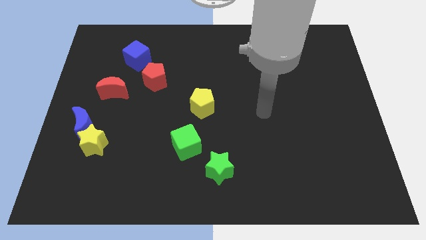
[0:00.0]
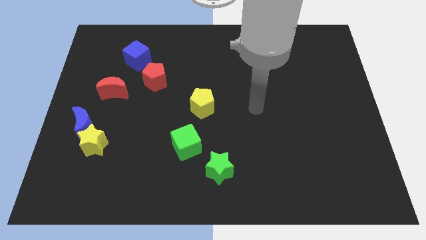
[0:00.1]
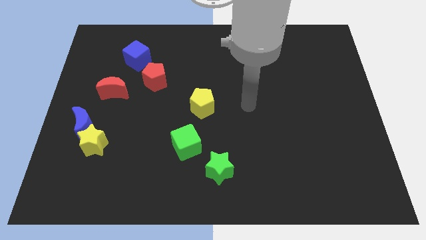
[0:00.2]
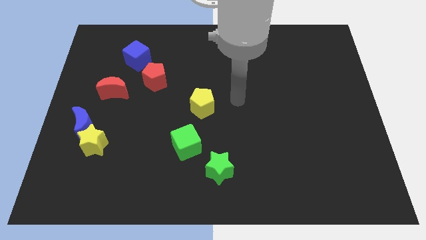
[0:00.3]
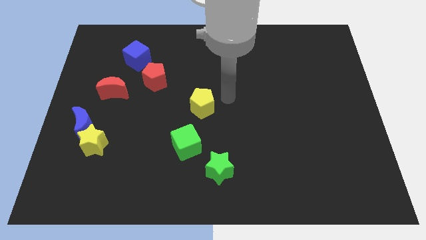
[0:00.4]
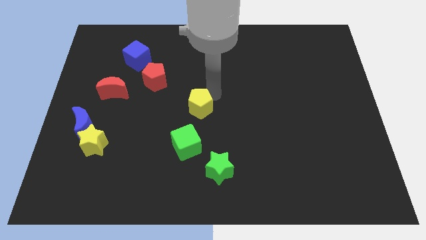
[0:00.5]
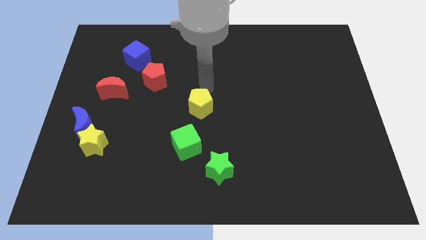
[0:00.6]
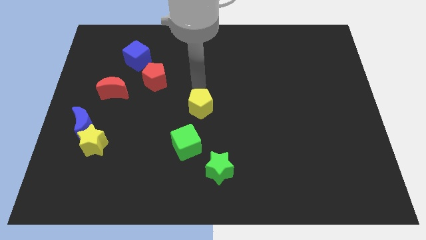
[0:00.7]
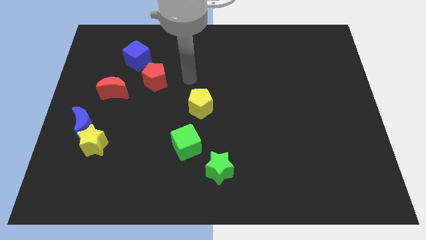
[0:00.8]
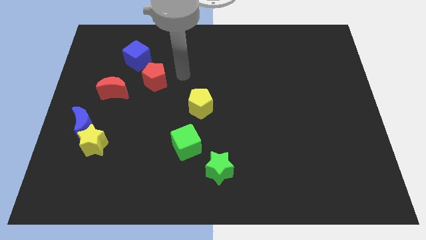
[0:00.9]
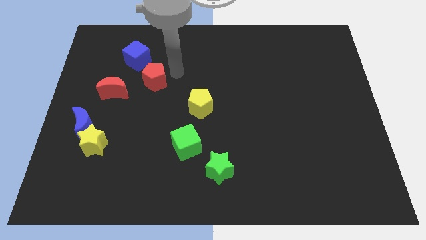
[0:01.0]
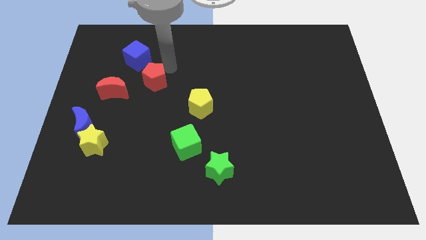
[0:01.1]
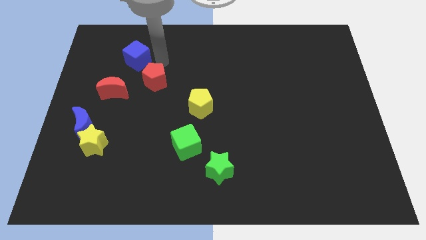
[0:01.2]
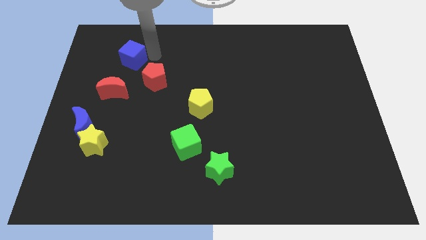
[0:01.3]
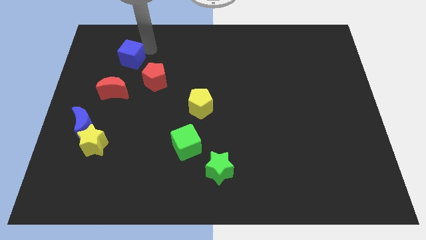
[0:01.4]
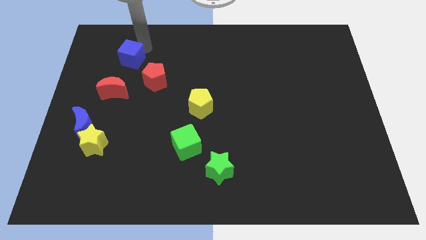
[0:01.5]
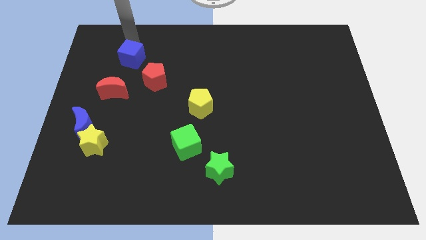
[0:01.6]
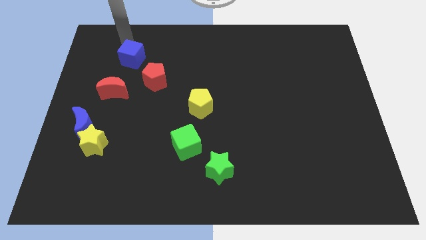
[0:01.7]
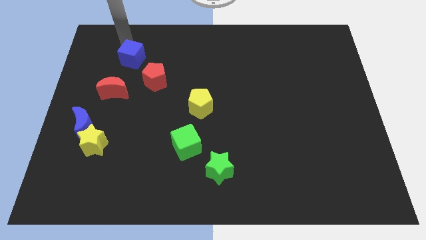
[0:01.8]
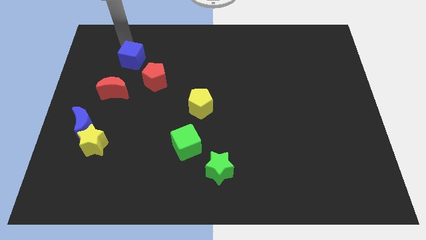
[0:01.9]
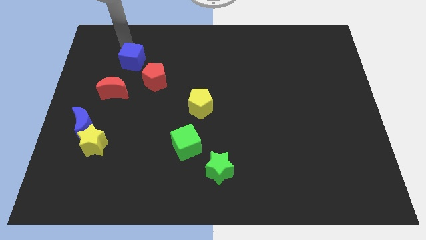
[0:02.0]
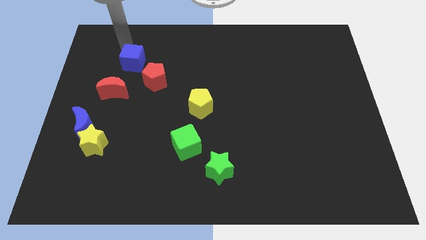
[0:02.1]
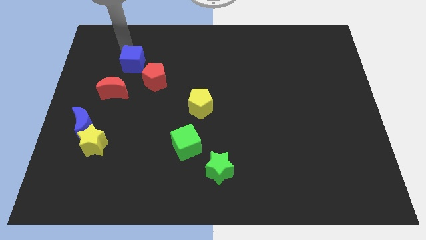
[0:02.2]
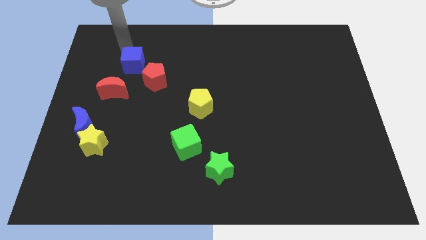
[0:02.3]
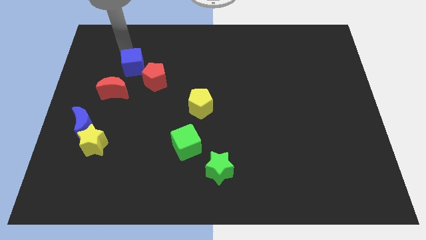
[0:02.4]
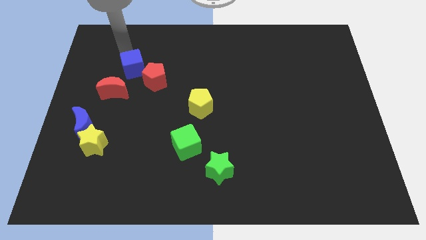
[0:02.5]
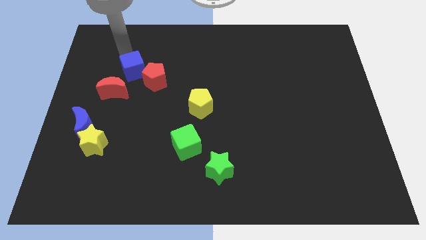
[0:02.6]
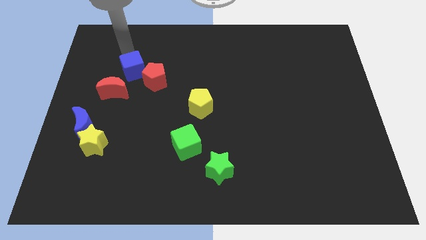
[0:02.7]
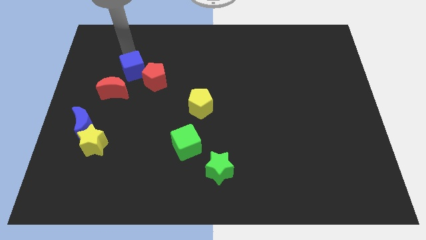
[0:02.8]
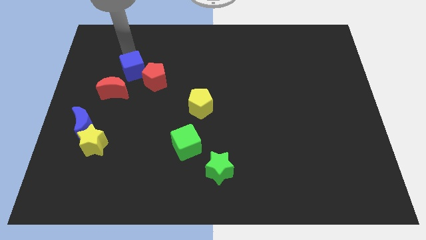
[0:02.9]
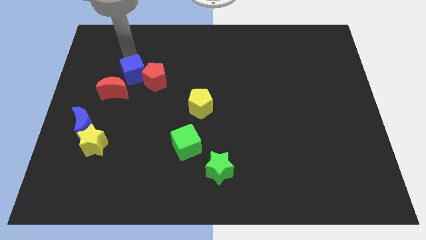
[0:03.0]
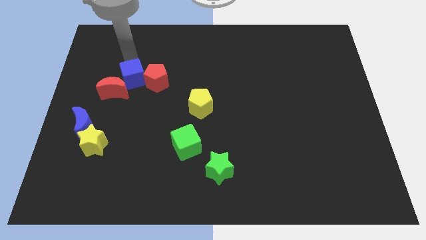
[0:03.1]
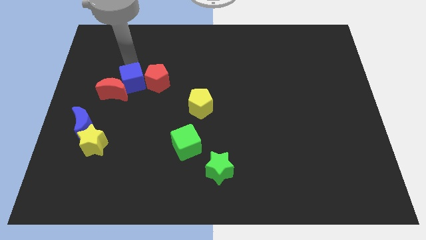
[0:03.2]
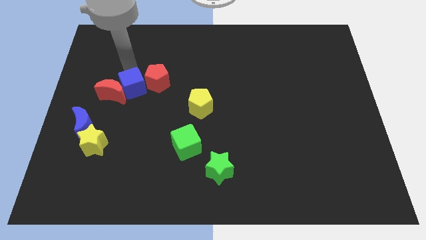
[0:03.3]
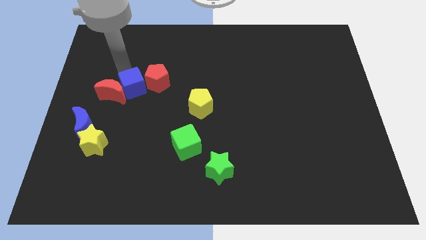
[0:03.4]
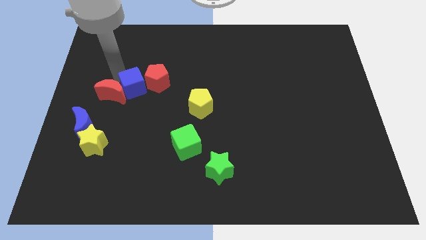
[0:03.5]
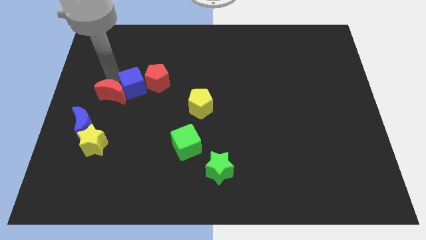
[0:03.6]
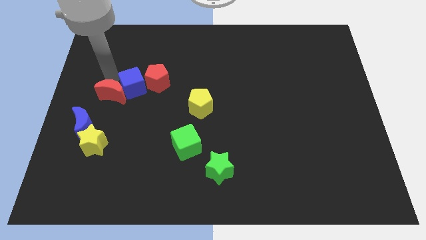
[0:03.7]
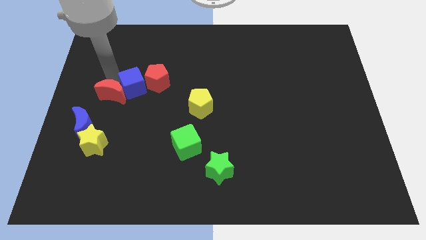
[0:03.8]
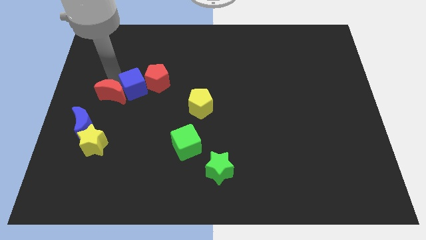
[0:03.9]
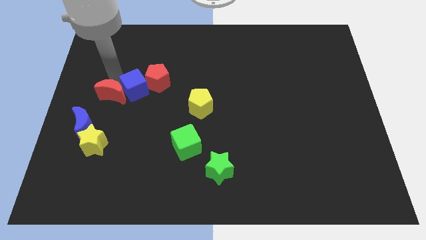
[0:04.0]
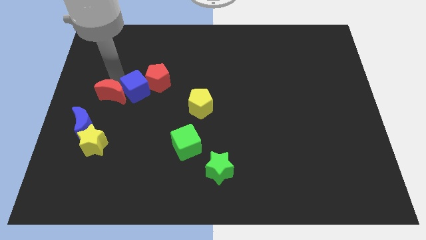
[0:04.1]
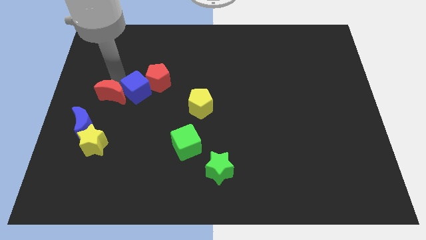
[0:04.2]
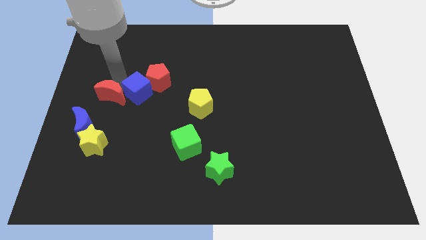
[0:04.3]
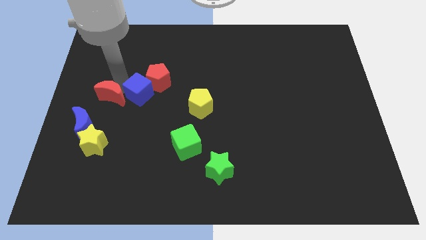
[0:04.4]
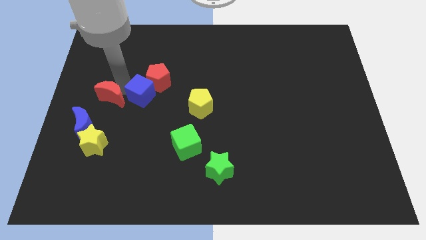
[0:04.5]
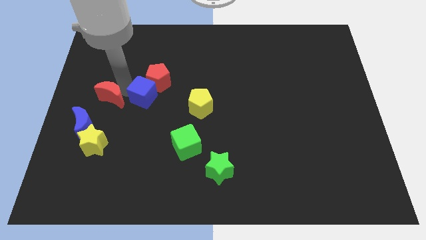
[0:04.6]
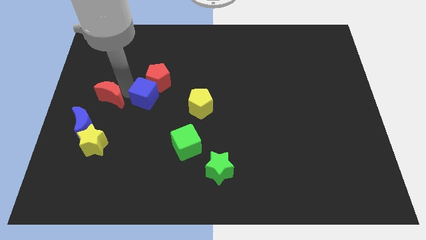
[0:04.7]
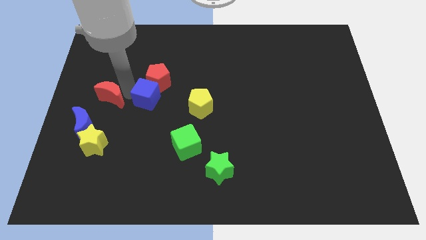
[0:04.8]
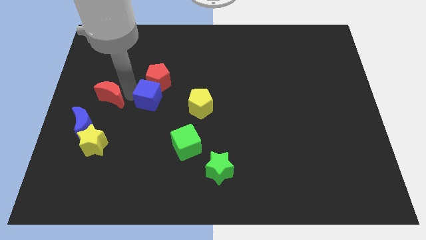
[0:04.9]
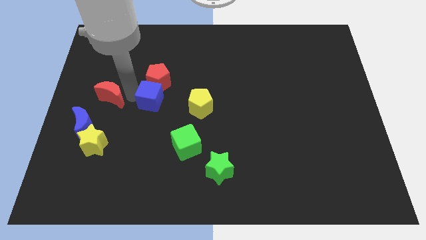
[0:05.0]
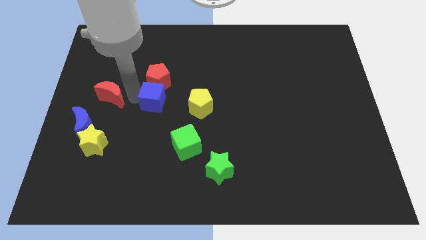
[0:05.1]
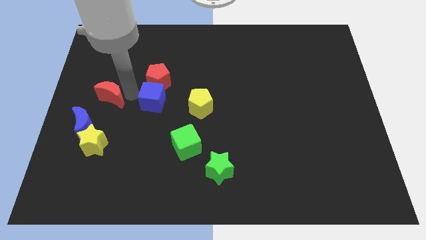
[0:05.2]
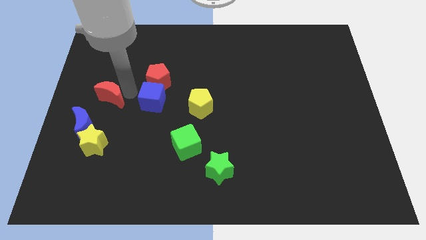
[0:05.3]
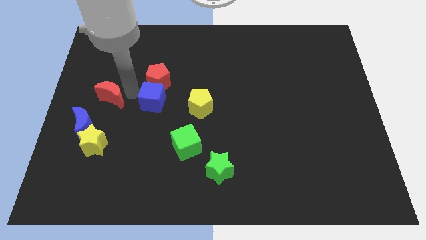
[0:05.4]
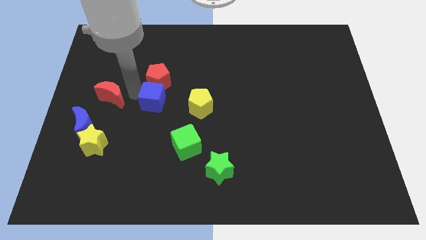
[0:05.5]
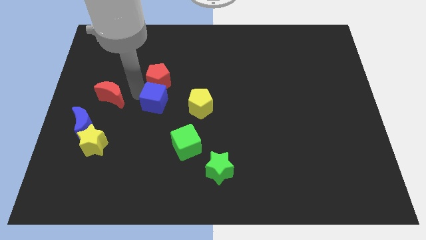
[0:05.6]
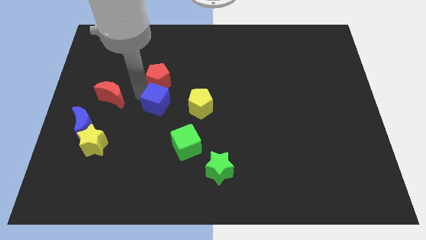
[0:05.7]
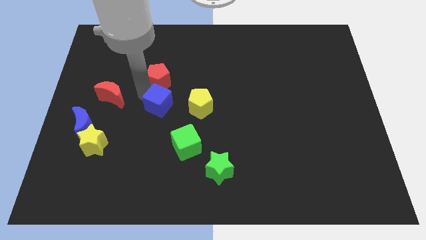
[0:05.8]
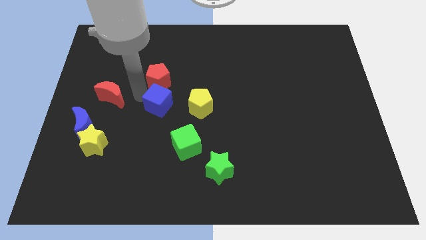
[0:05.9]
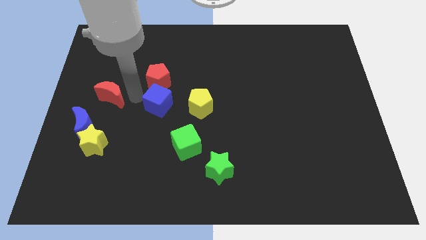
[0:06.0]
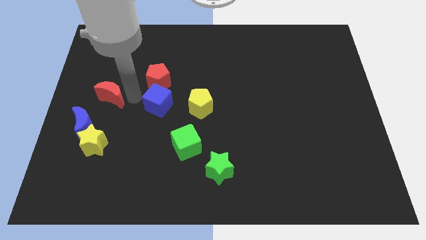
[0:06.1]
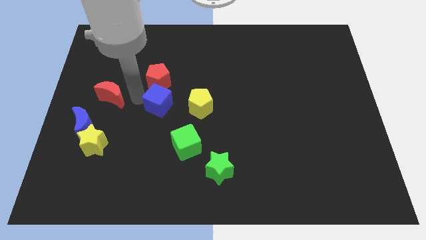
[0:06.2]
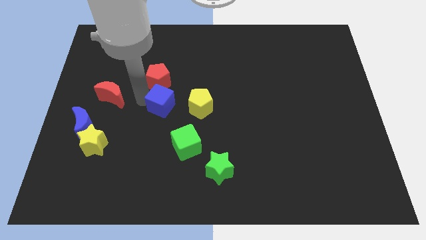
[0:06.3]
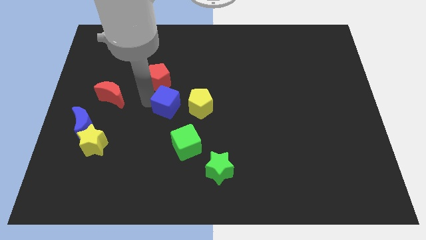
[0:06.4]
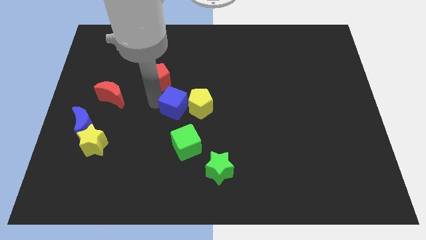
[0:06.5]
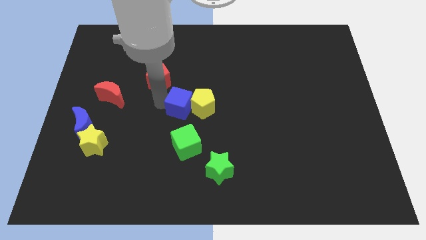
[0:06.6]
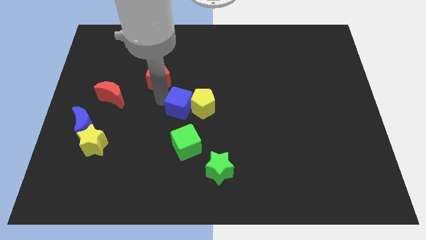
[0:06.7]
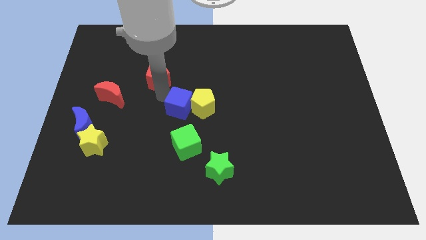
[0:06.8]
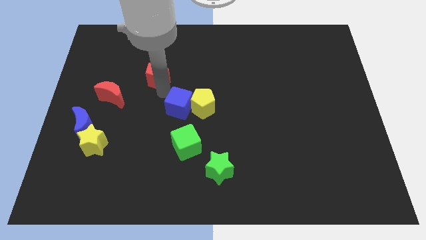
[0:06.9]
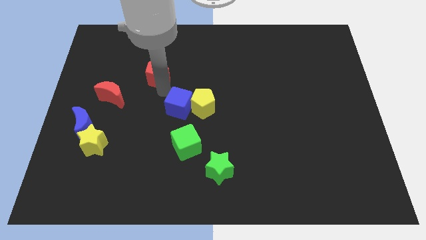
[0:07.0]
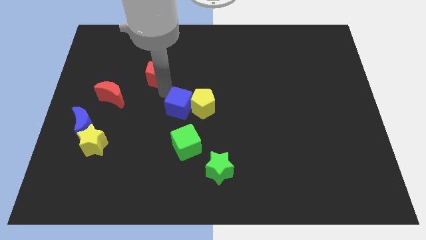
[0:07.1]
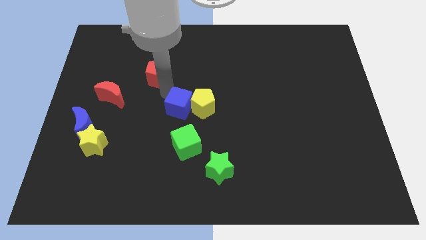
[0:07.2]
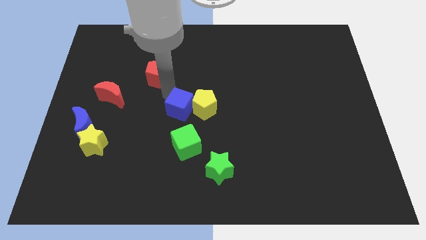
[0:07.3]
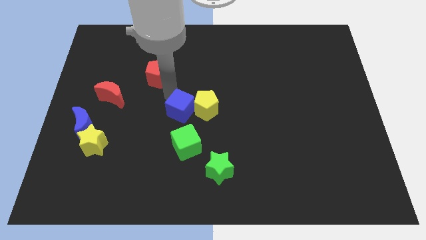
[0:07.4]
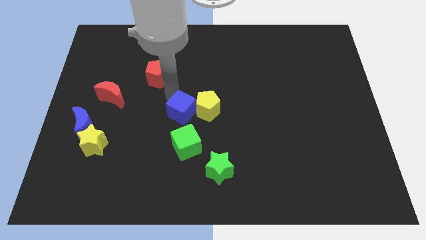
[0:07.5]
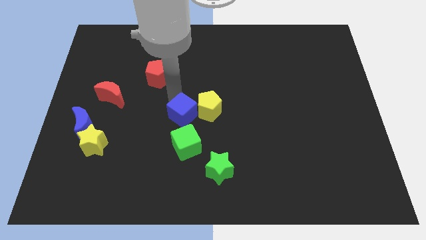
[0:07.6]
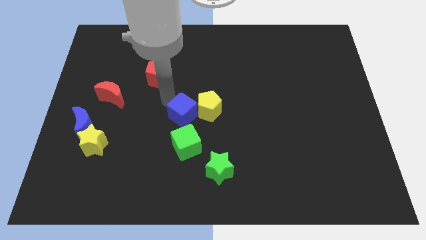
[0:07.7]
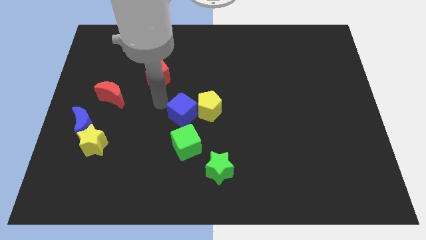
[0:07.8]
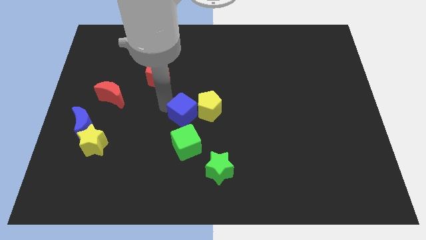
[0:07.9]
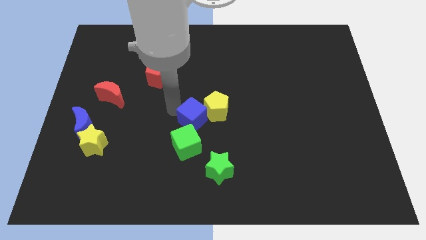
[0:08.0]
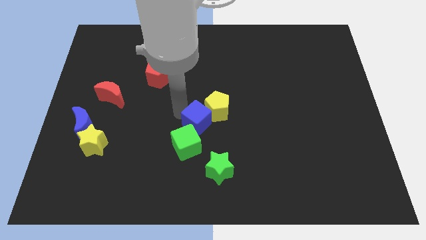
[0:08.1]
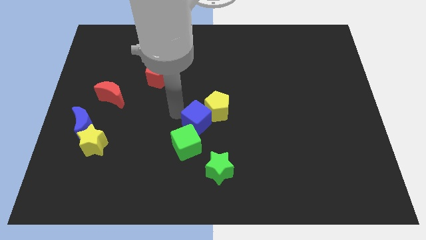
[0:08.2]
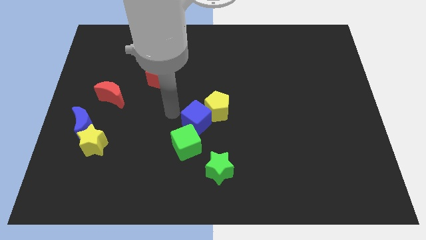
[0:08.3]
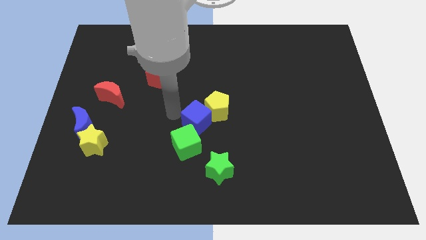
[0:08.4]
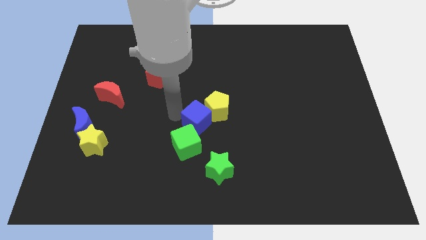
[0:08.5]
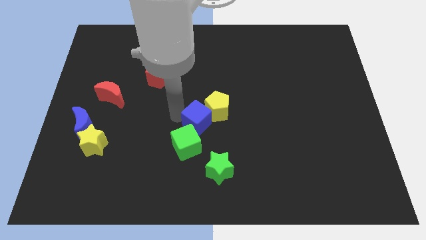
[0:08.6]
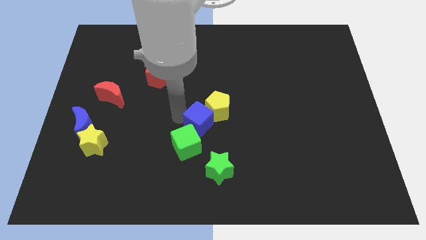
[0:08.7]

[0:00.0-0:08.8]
slide the blue cube to the bottom side of the yellow pentagon
